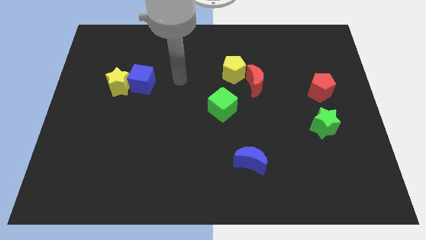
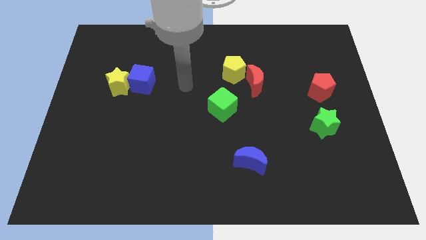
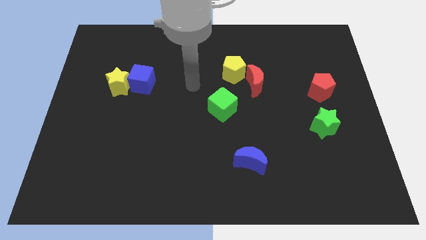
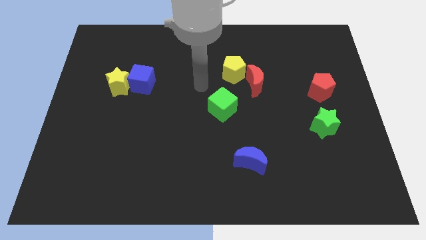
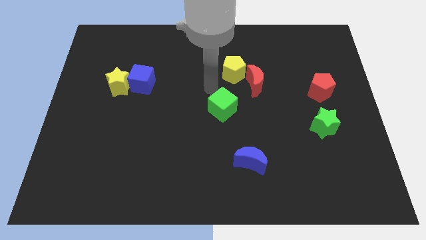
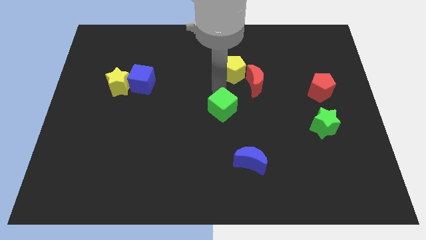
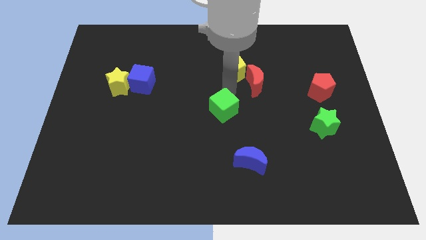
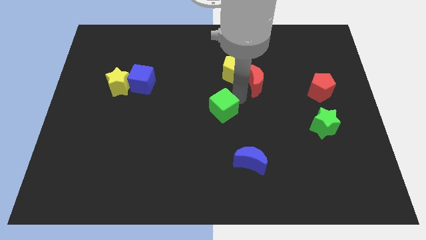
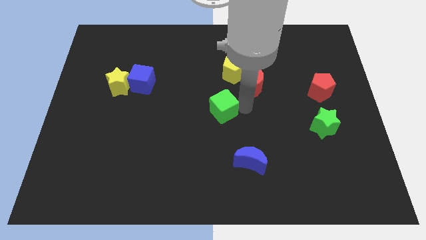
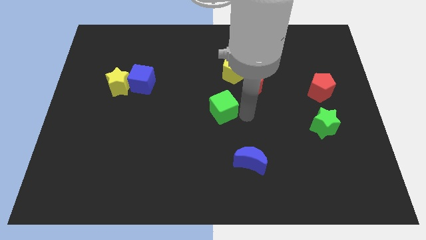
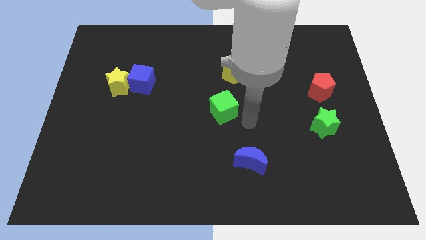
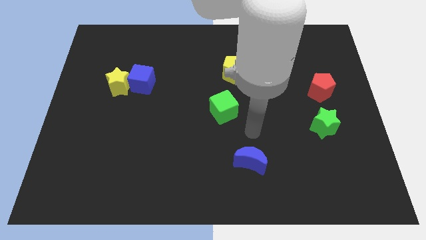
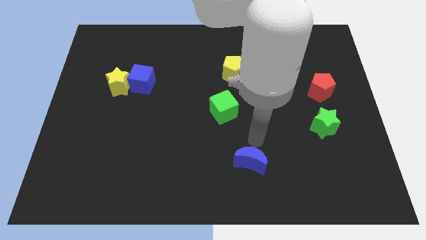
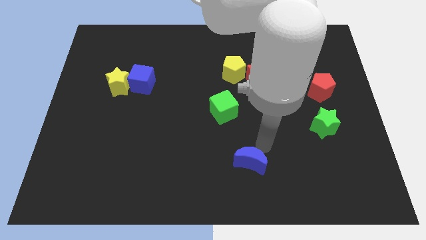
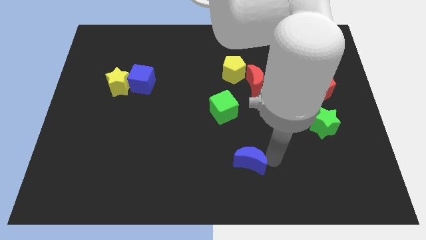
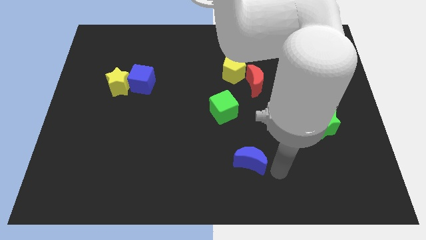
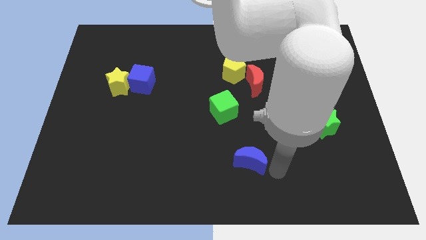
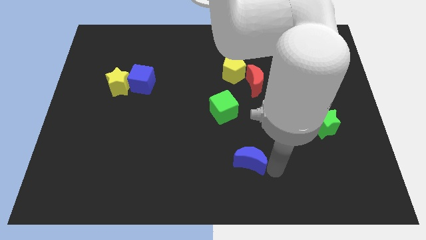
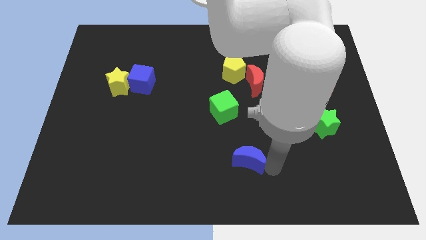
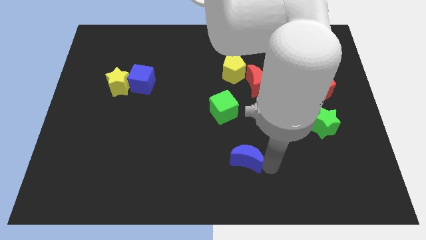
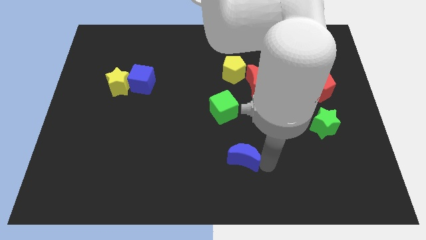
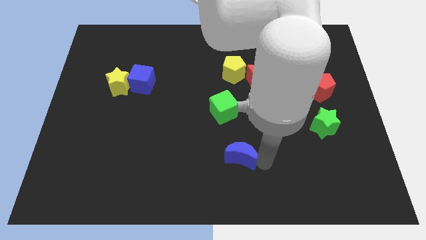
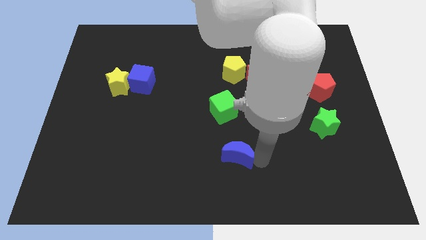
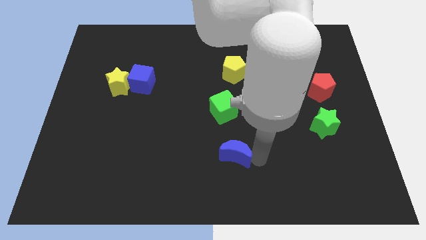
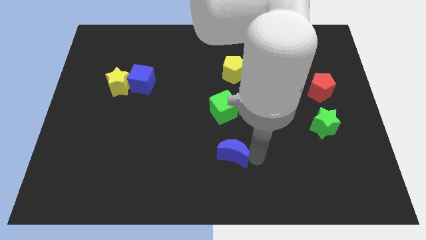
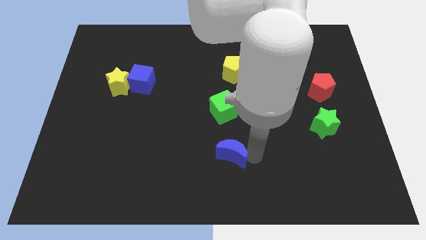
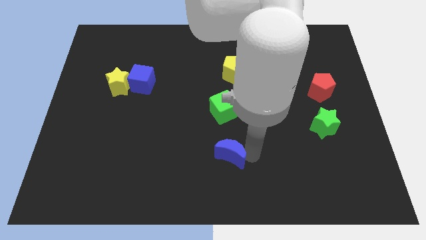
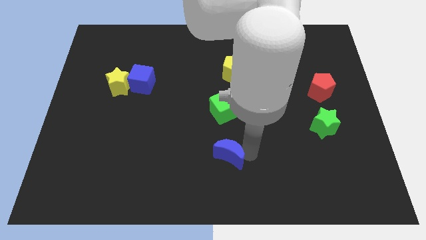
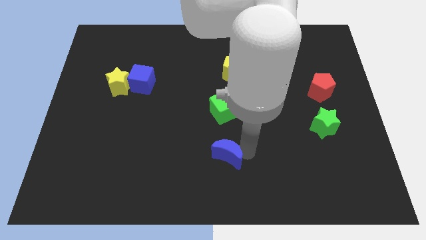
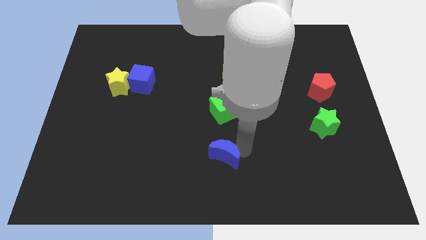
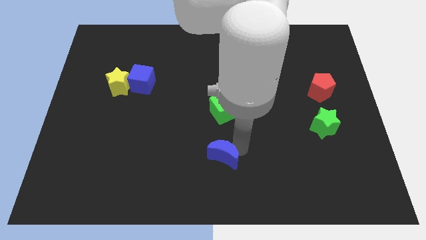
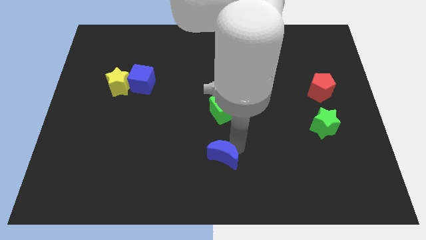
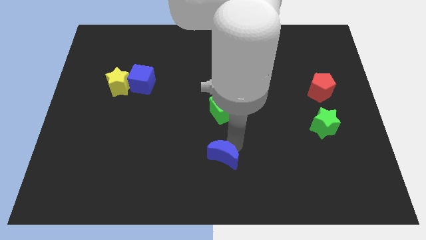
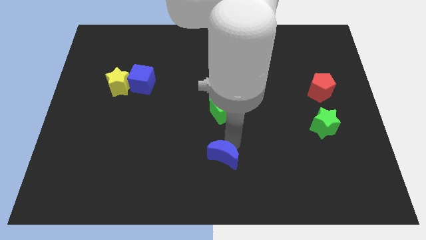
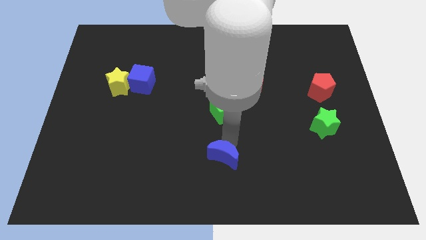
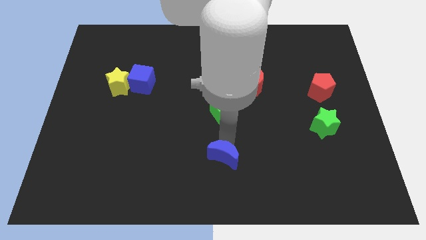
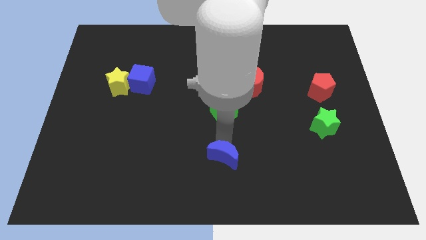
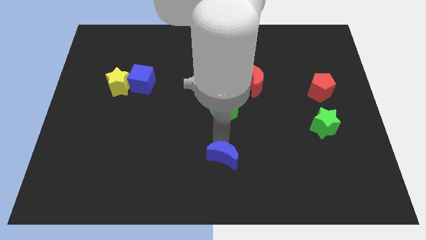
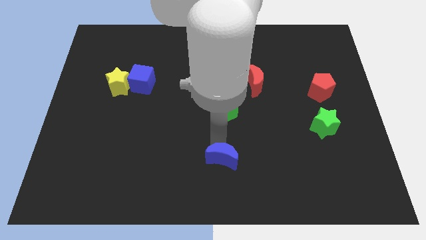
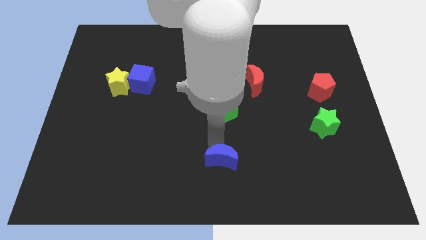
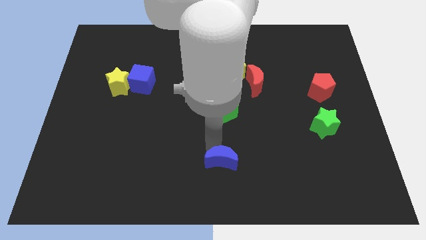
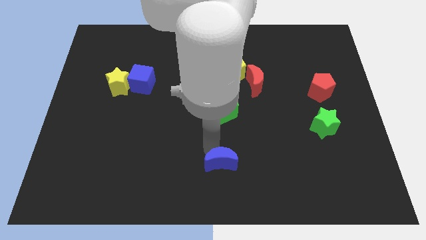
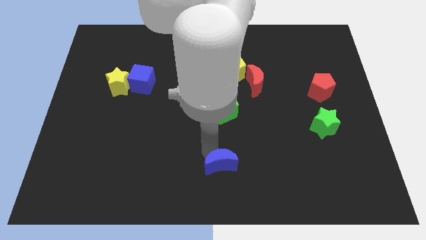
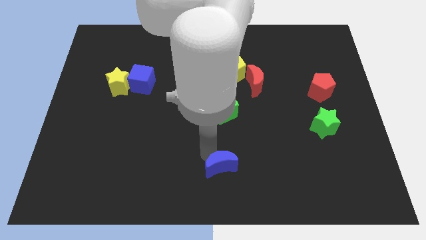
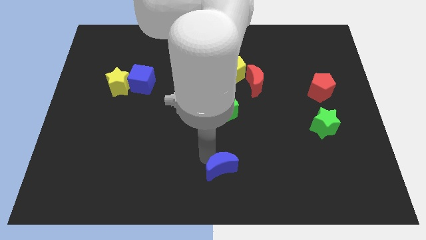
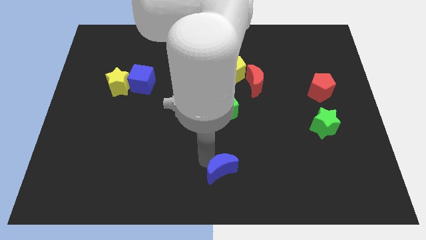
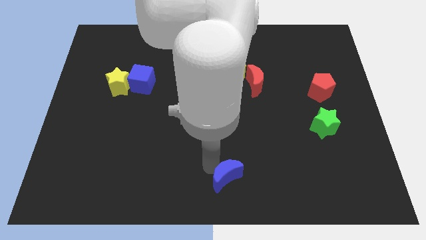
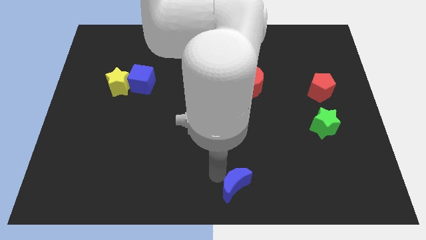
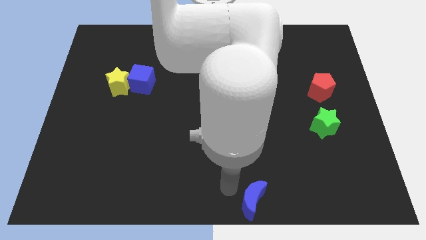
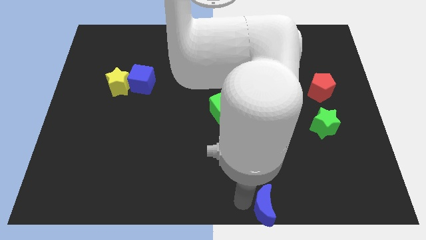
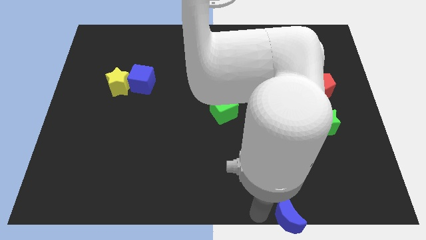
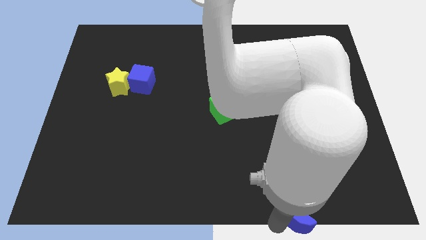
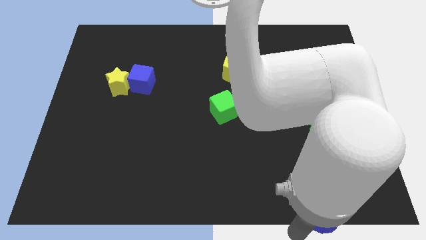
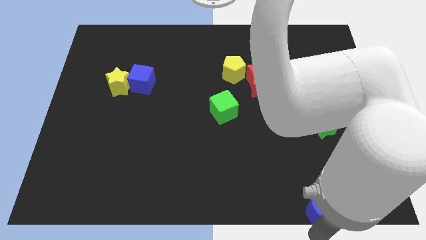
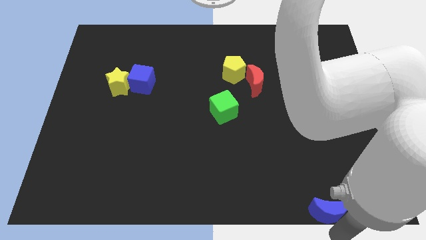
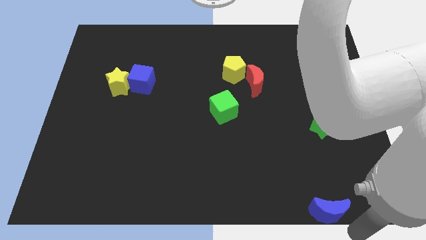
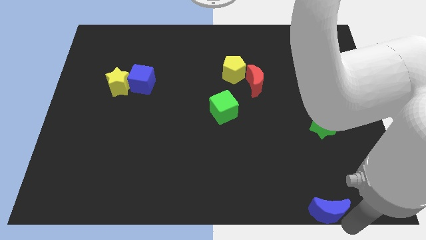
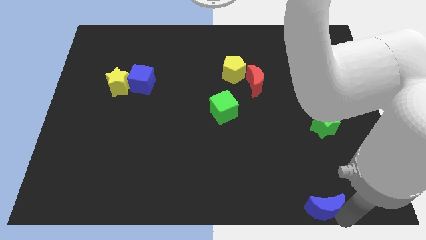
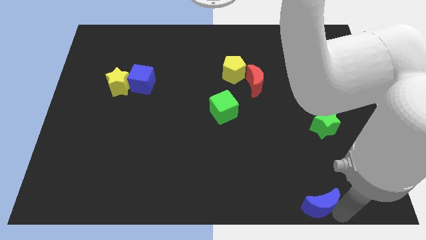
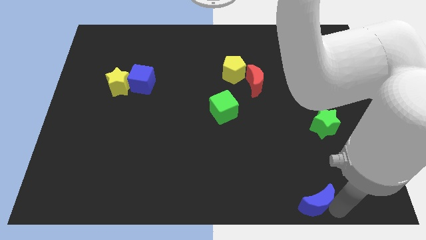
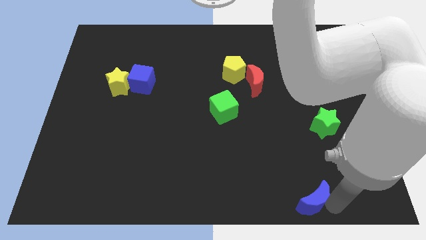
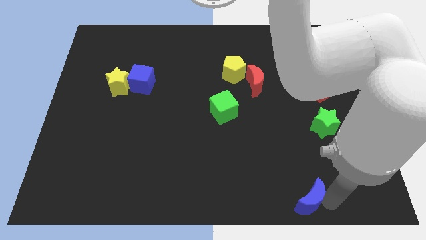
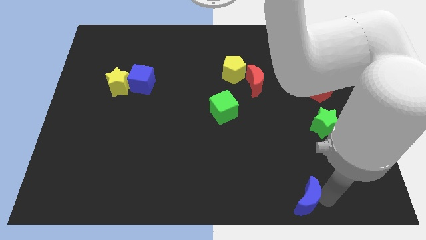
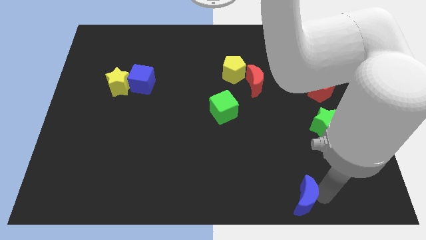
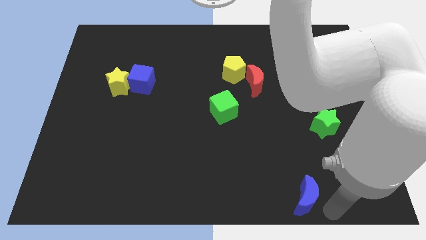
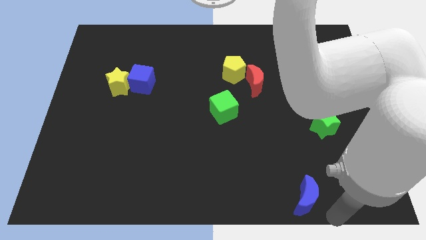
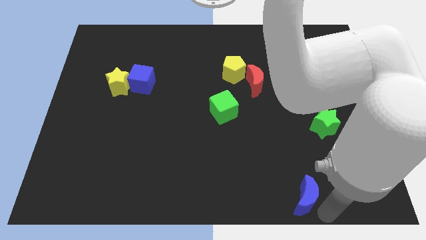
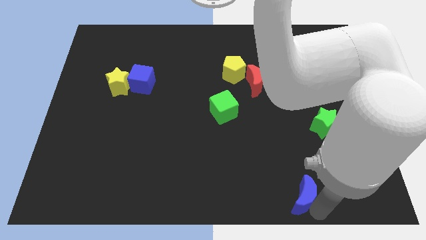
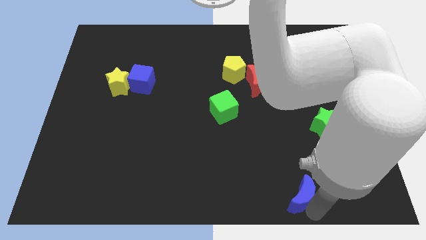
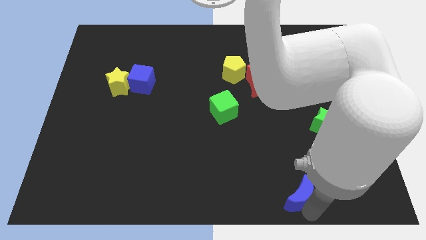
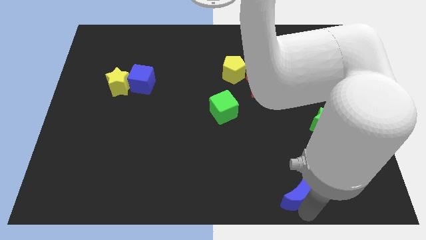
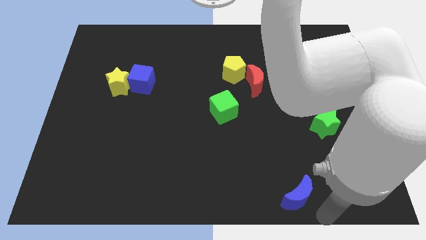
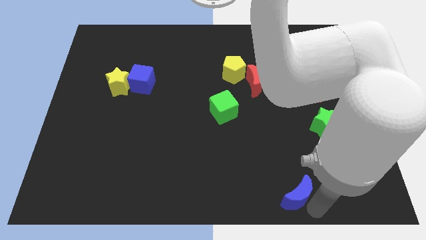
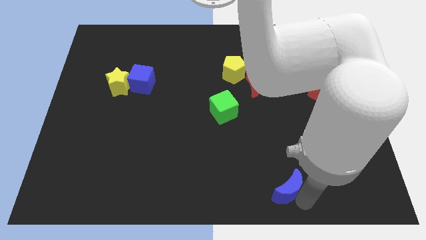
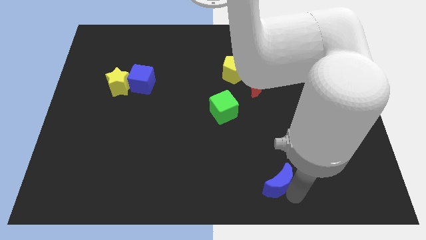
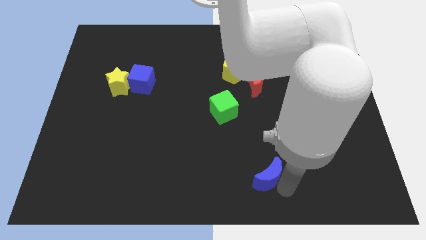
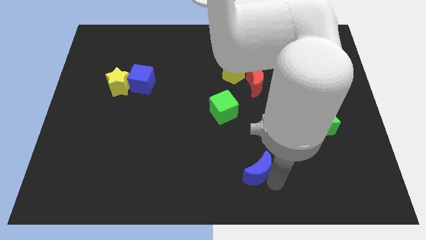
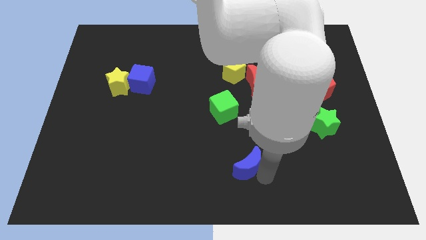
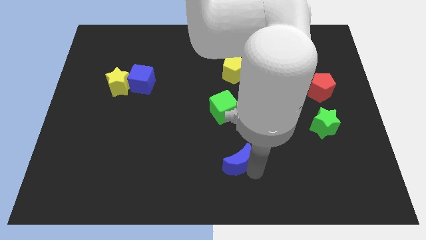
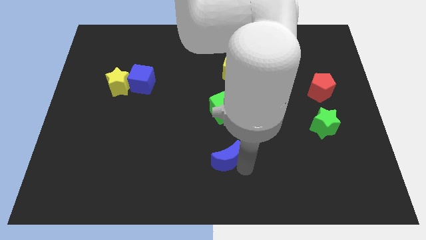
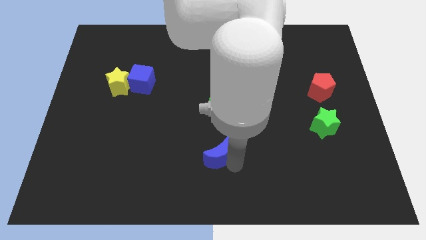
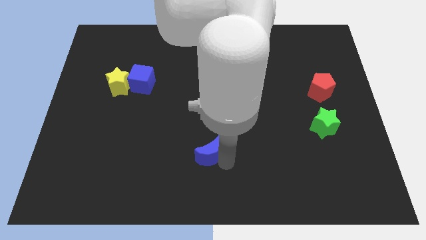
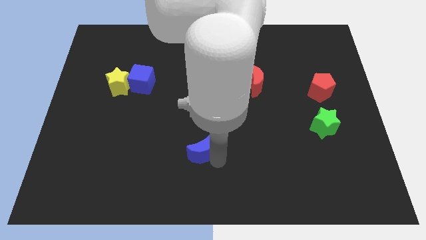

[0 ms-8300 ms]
slightly push the blue moon up and left

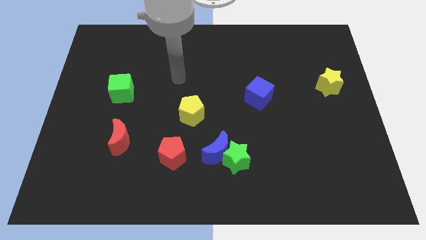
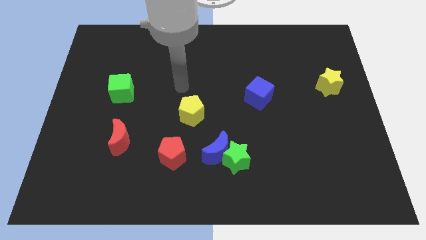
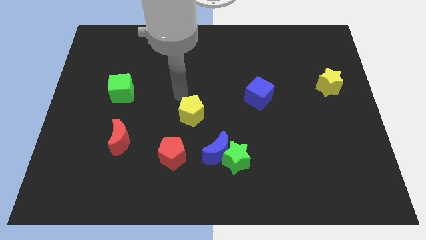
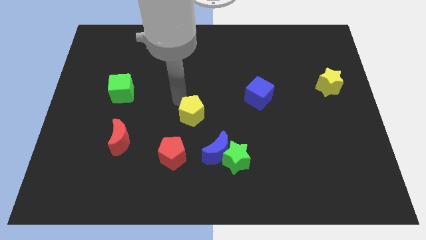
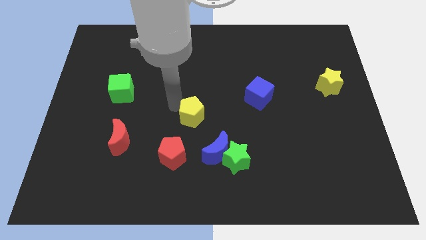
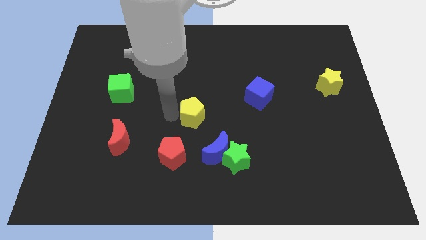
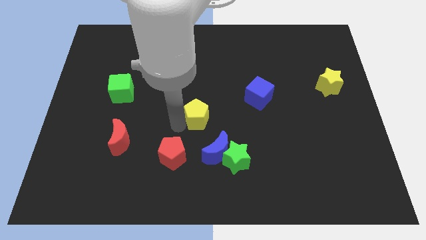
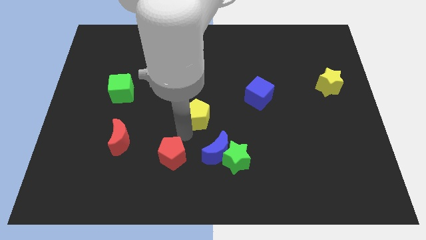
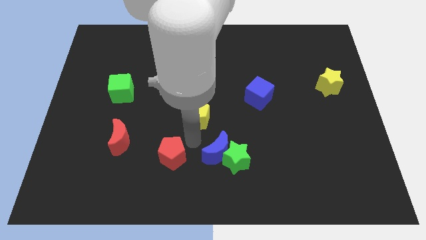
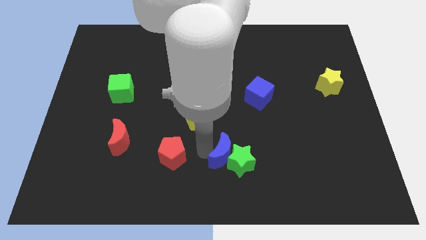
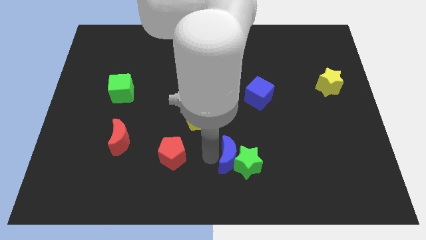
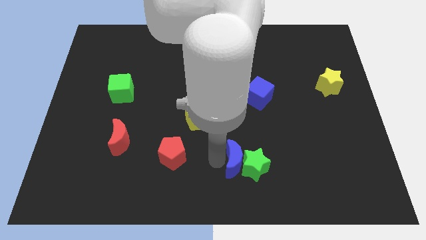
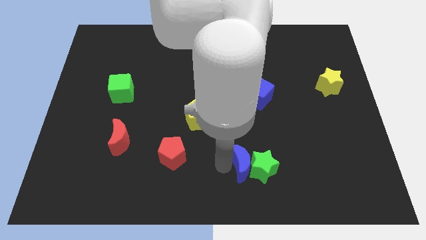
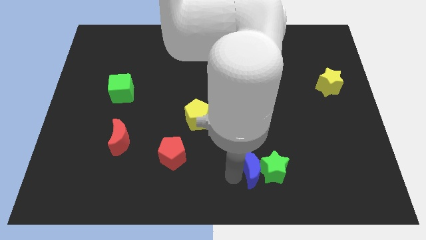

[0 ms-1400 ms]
move the green star right a bit
